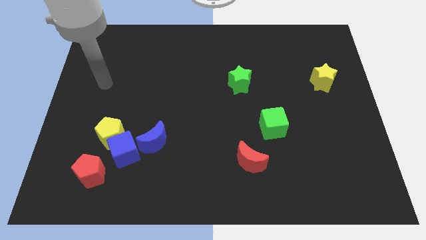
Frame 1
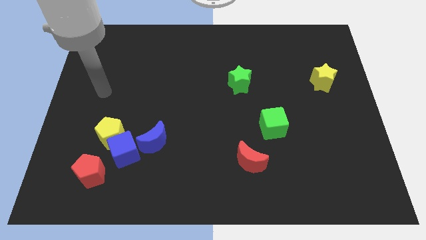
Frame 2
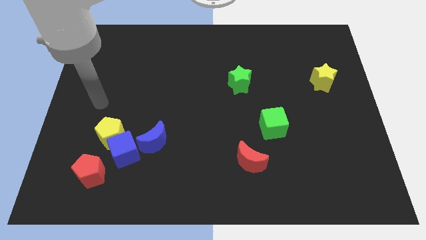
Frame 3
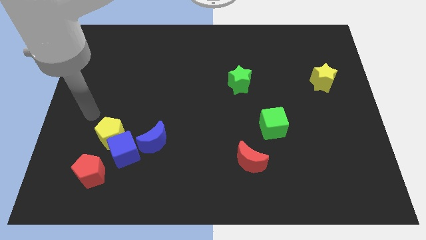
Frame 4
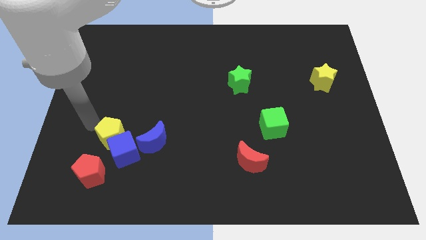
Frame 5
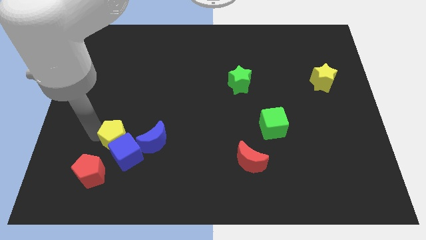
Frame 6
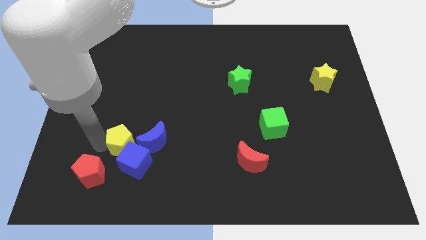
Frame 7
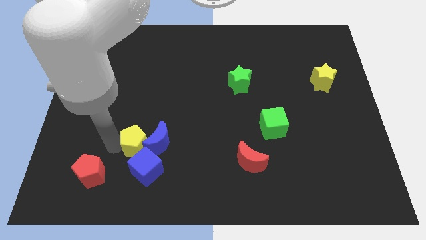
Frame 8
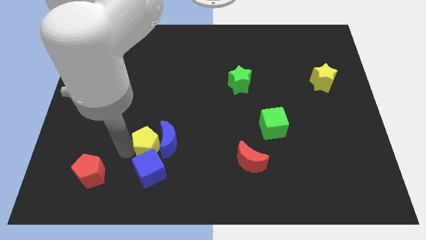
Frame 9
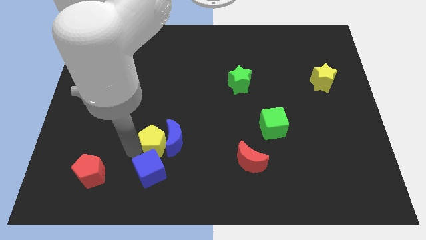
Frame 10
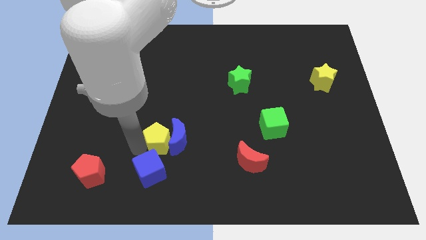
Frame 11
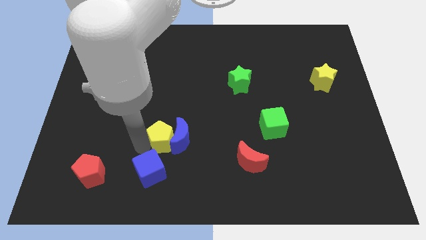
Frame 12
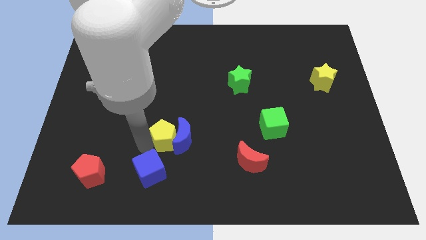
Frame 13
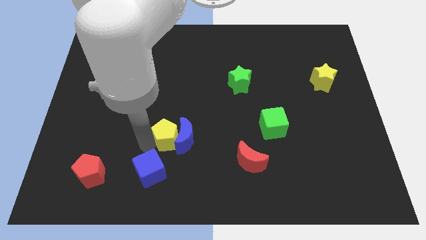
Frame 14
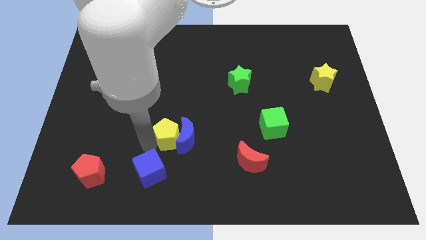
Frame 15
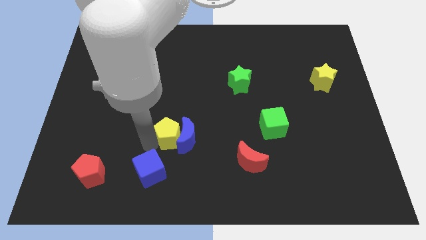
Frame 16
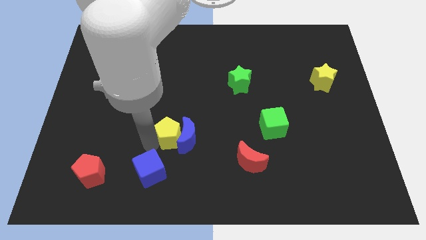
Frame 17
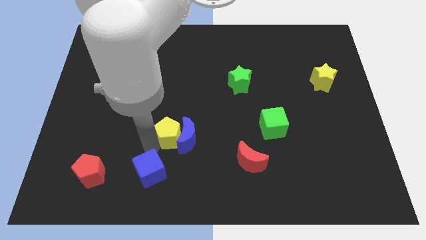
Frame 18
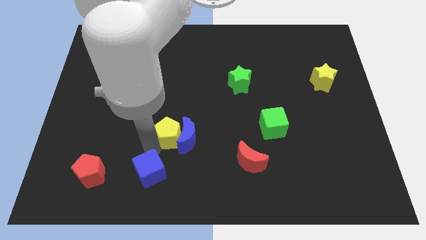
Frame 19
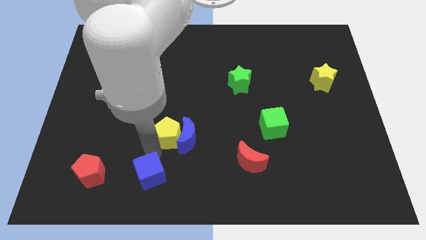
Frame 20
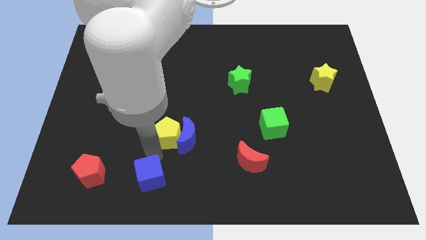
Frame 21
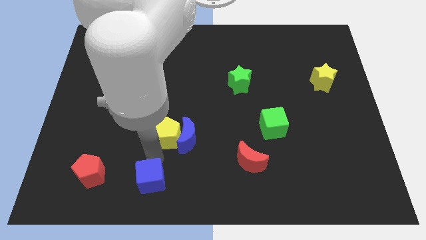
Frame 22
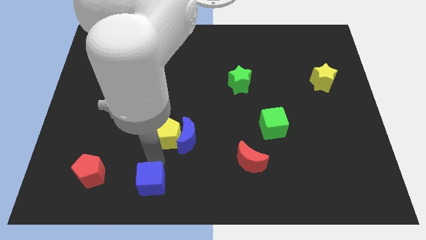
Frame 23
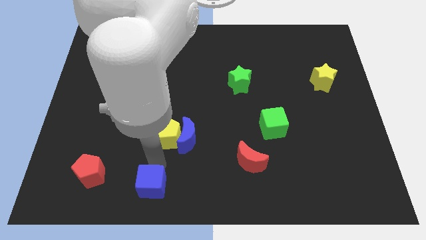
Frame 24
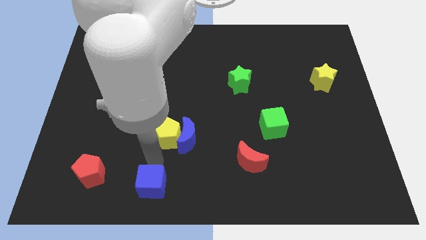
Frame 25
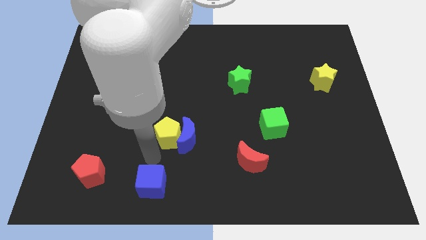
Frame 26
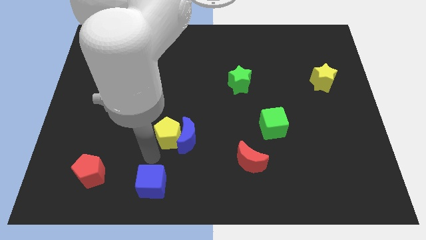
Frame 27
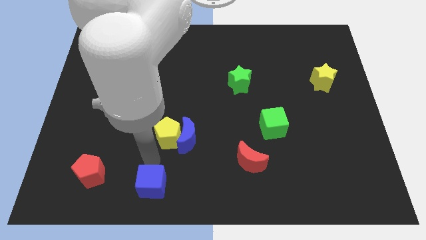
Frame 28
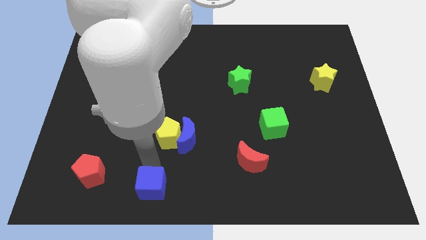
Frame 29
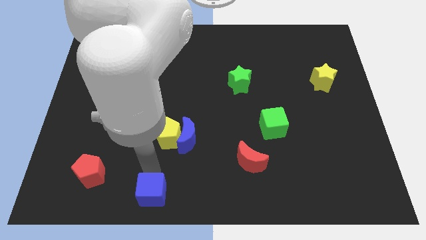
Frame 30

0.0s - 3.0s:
pull the blue cube apart from the yellow pentagon, blue moon, and red pentagon

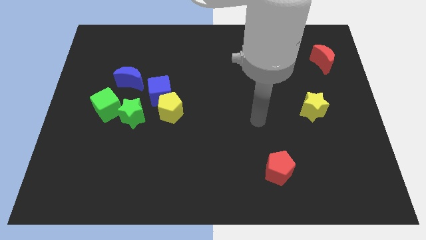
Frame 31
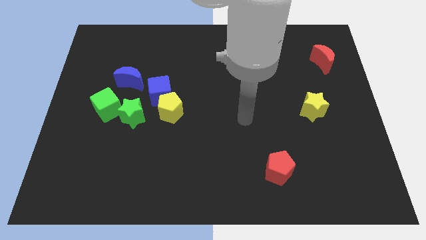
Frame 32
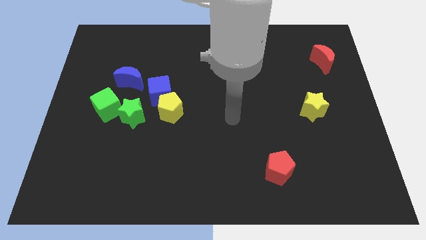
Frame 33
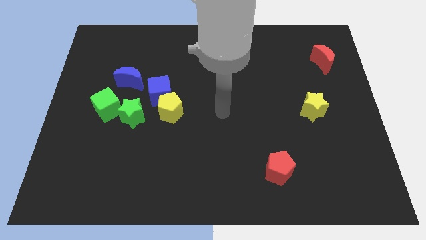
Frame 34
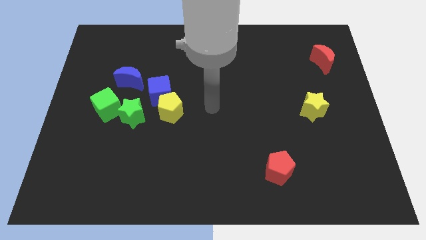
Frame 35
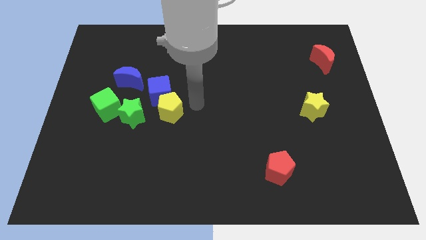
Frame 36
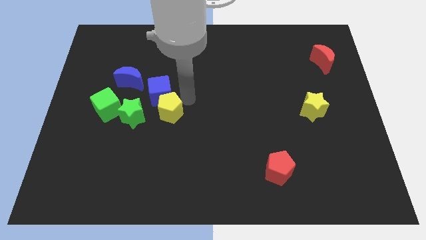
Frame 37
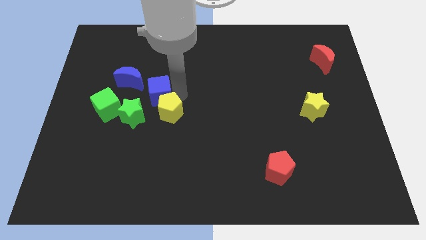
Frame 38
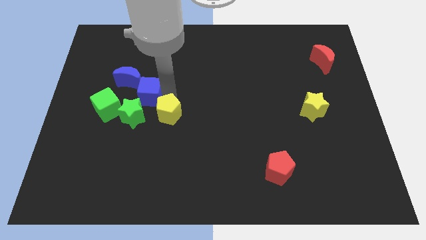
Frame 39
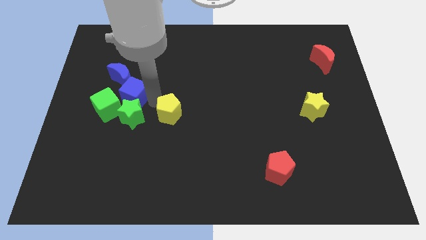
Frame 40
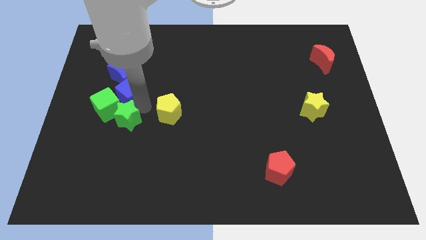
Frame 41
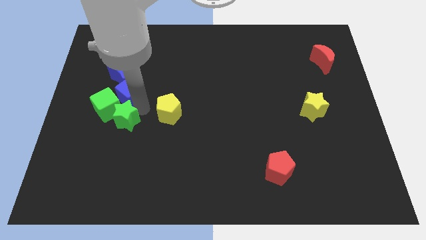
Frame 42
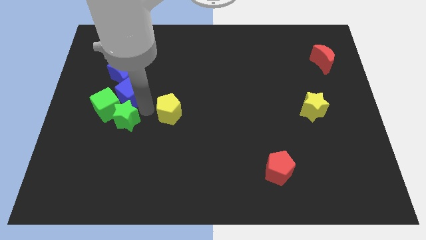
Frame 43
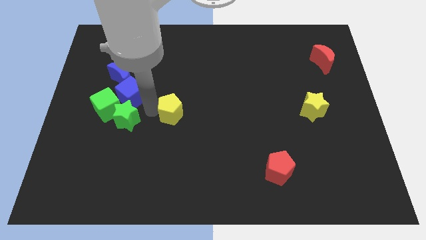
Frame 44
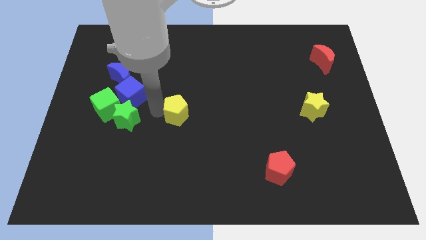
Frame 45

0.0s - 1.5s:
move the yellow pentagon away from the blue cube and green star

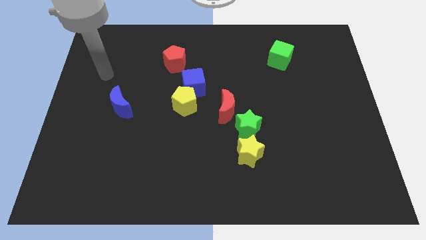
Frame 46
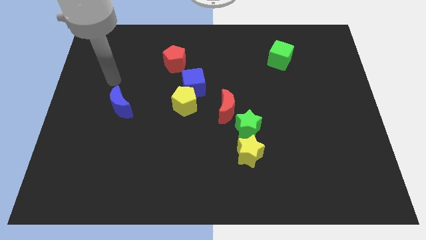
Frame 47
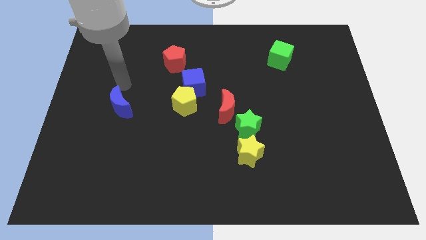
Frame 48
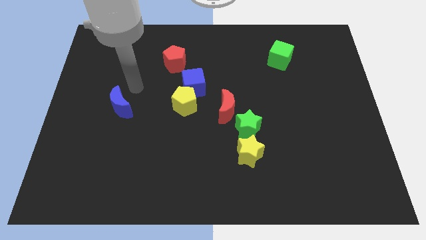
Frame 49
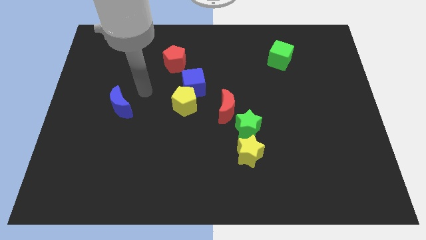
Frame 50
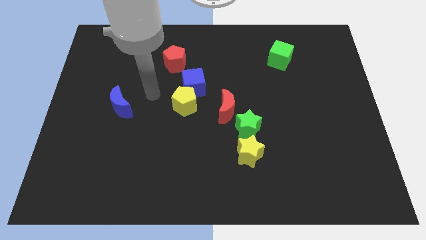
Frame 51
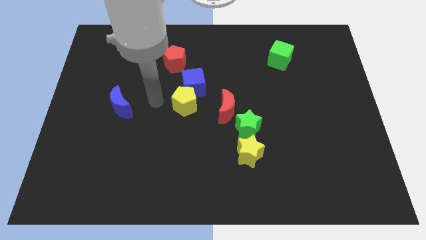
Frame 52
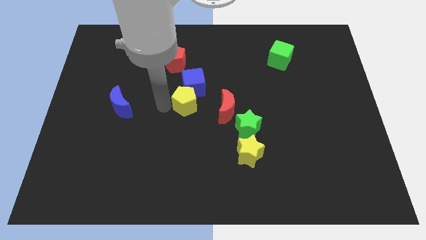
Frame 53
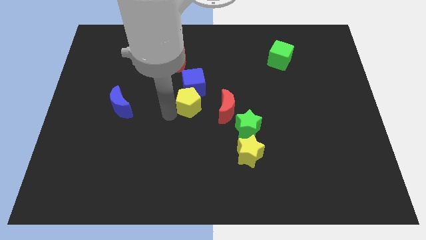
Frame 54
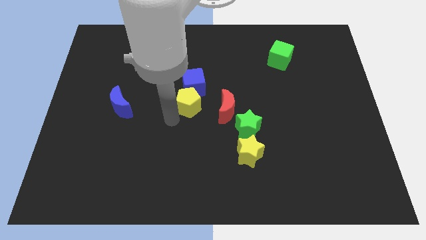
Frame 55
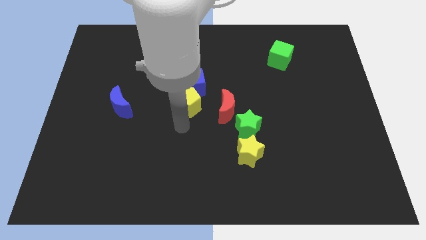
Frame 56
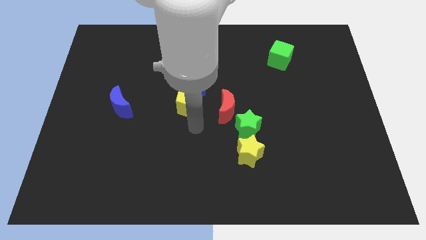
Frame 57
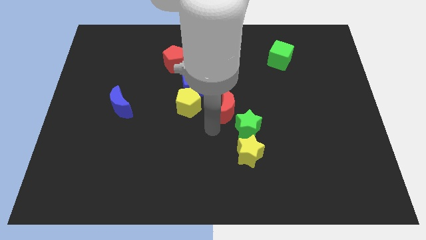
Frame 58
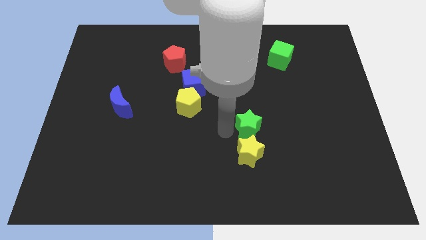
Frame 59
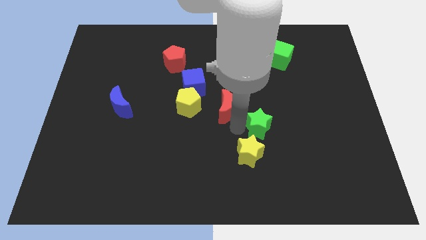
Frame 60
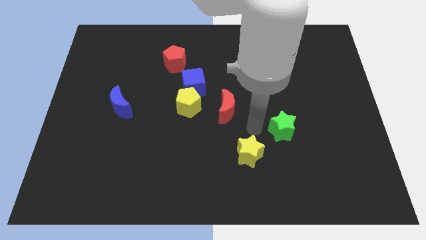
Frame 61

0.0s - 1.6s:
separate the yellow star from the green star

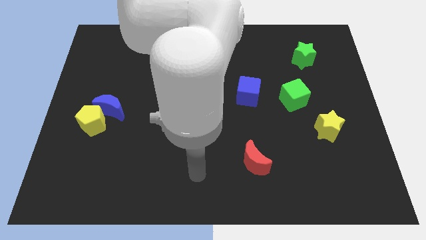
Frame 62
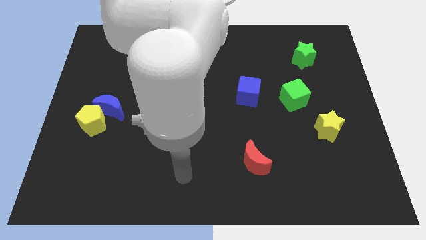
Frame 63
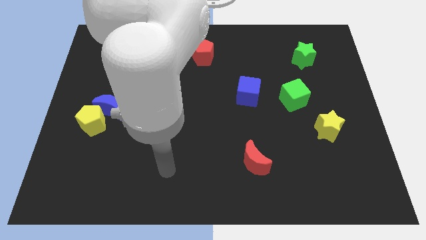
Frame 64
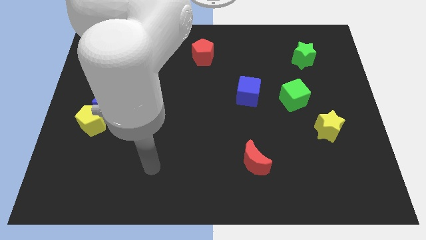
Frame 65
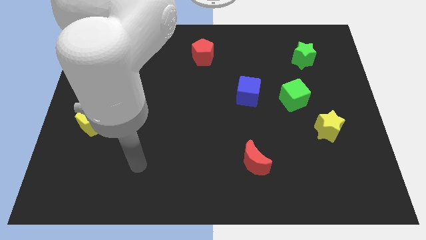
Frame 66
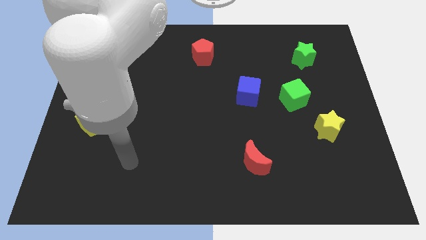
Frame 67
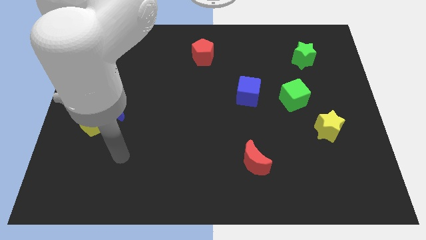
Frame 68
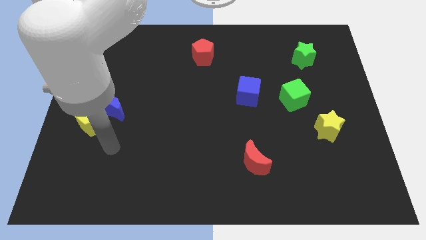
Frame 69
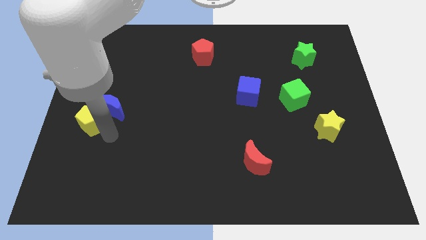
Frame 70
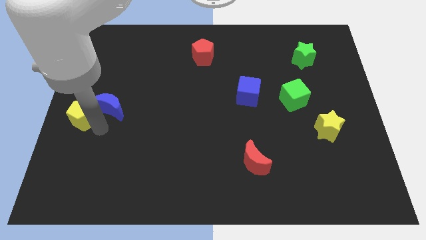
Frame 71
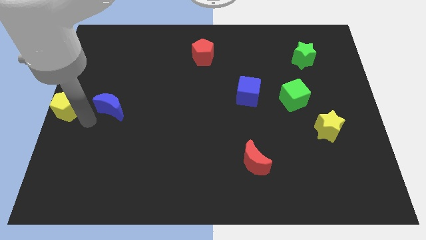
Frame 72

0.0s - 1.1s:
separate the blue moon from the yellow pentagon

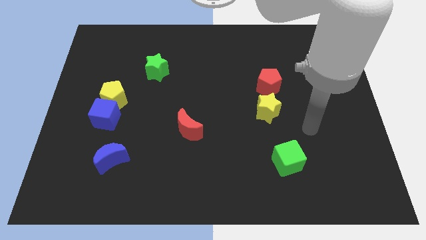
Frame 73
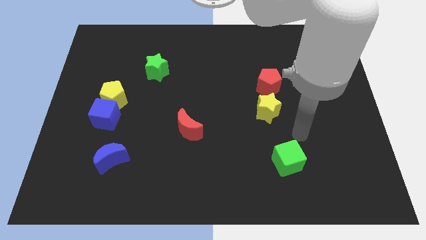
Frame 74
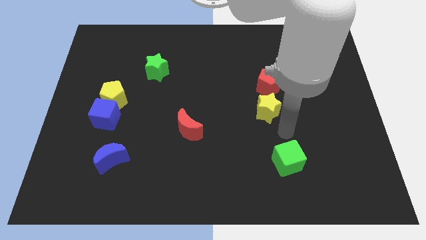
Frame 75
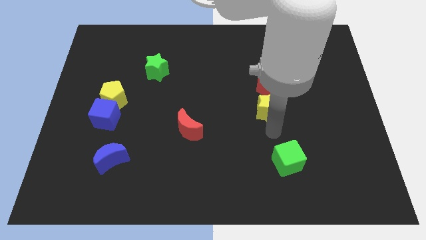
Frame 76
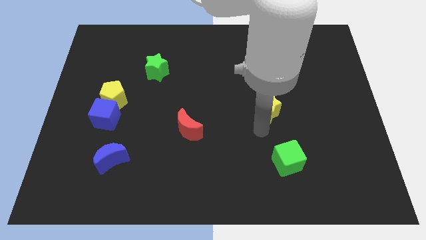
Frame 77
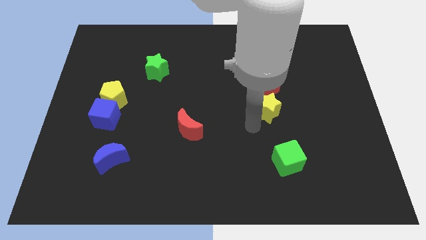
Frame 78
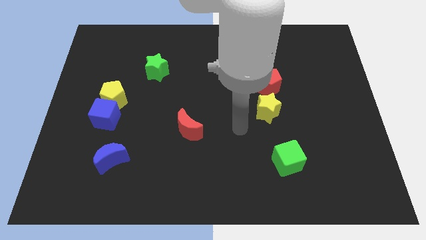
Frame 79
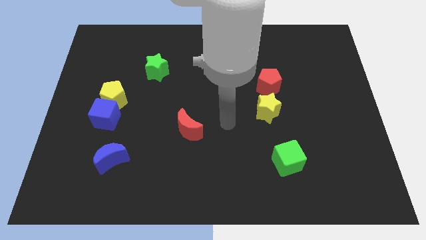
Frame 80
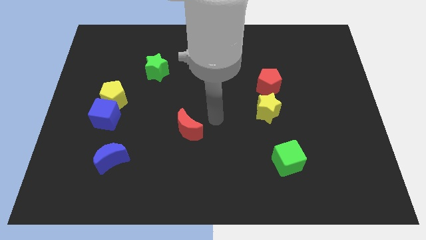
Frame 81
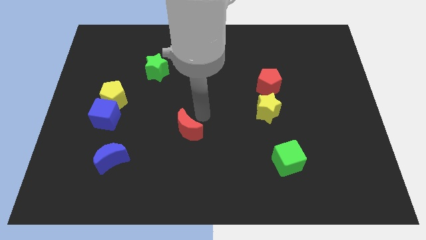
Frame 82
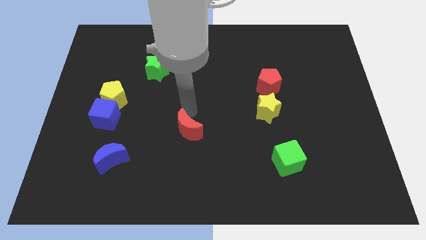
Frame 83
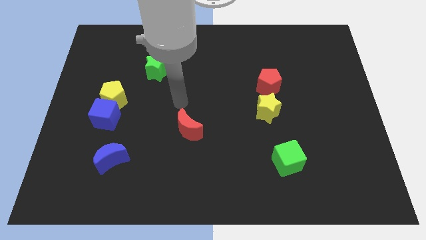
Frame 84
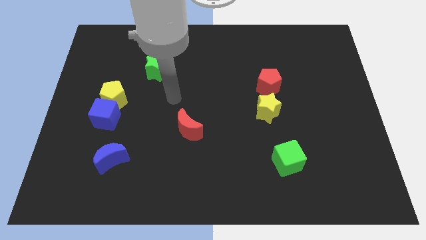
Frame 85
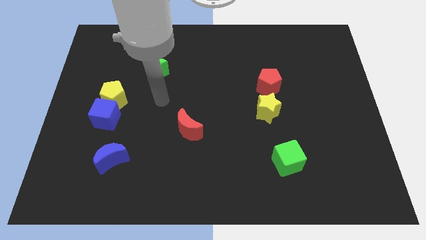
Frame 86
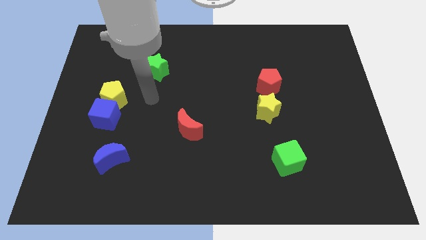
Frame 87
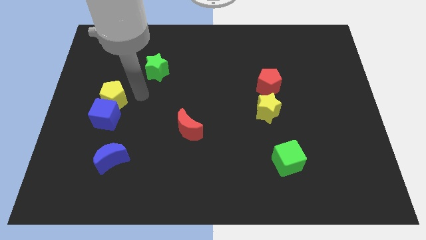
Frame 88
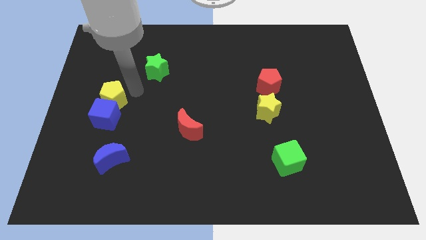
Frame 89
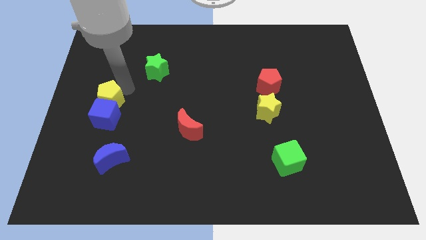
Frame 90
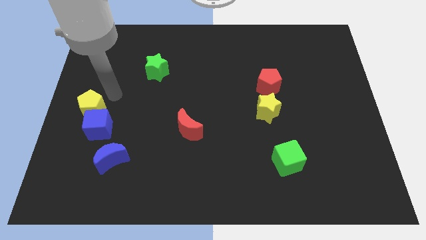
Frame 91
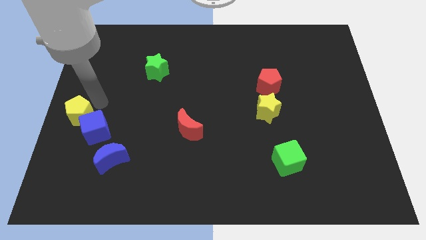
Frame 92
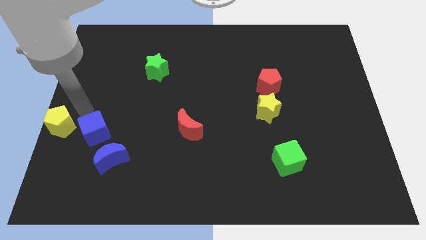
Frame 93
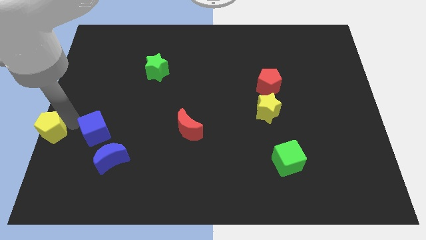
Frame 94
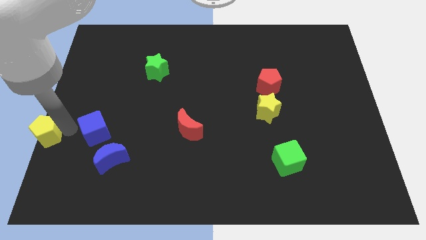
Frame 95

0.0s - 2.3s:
separate the blue cube from the yellow pentagon
